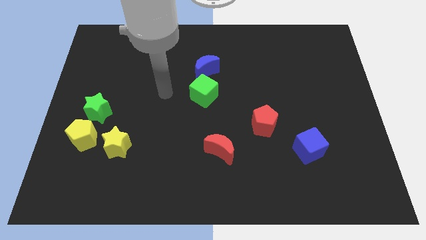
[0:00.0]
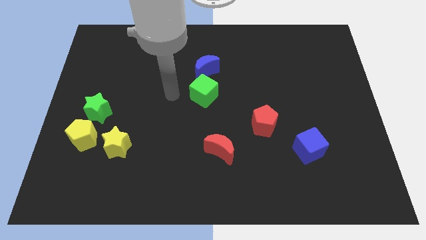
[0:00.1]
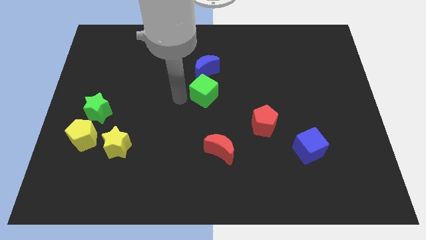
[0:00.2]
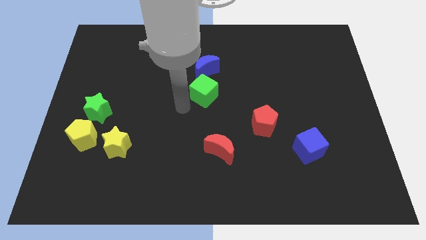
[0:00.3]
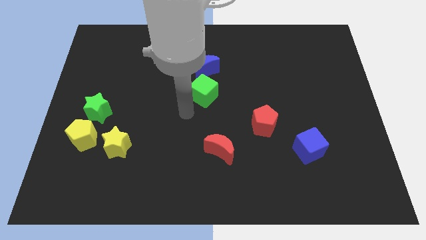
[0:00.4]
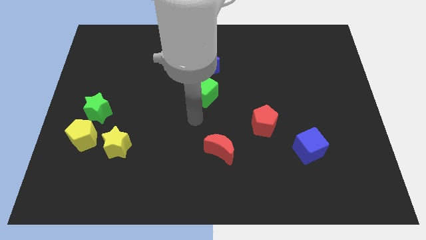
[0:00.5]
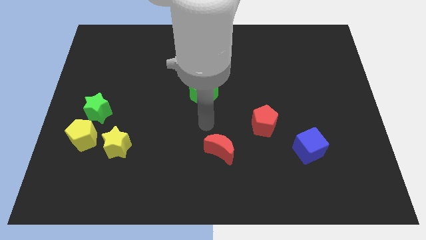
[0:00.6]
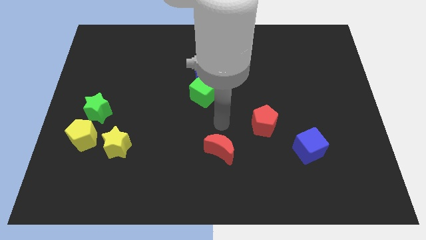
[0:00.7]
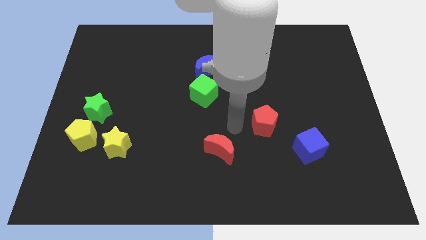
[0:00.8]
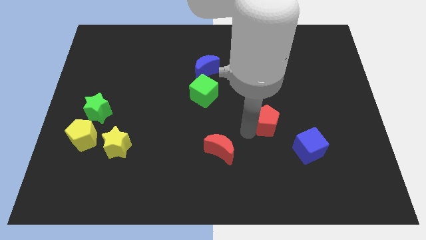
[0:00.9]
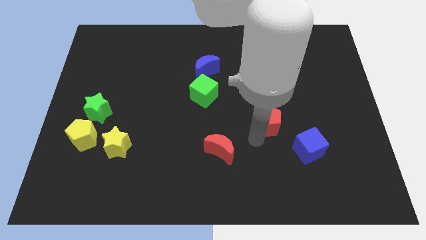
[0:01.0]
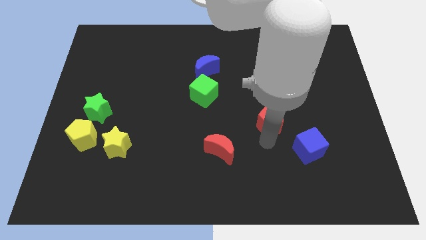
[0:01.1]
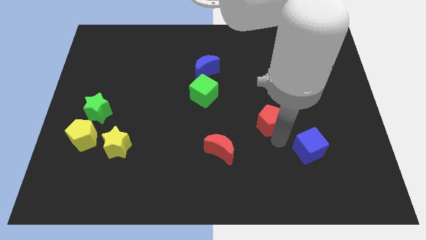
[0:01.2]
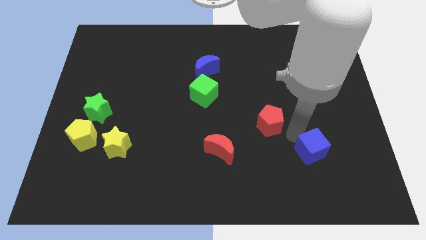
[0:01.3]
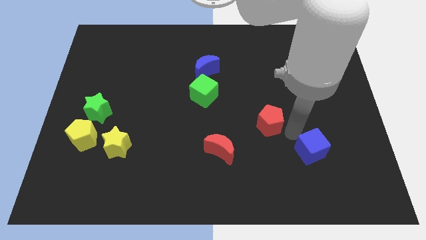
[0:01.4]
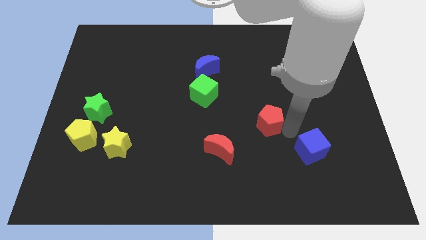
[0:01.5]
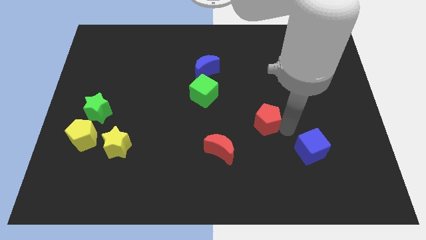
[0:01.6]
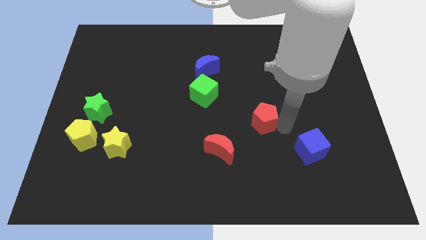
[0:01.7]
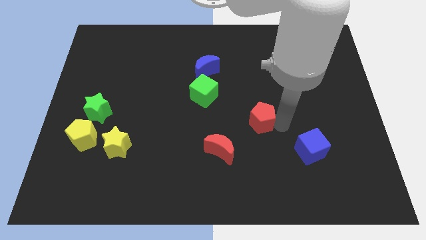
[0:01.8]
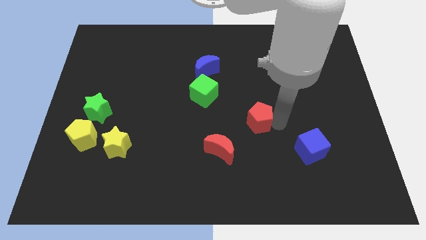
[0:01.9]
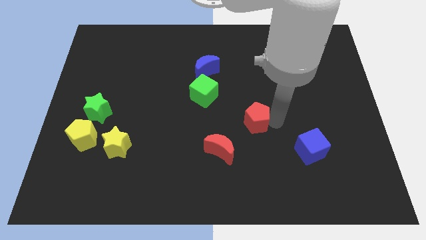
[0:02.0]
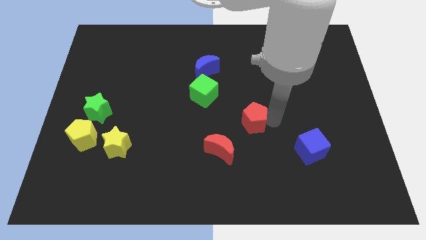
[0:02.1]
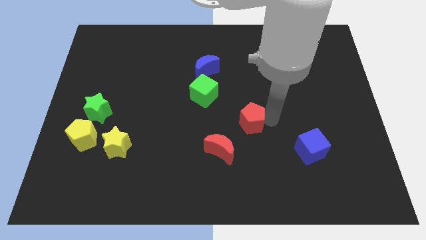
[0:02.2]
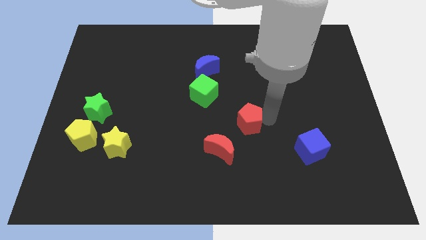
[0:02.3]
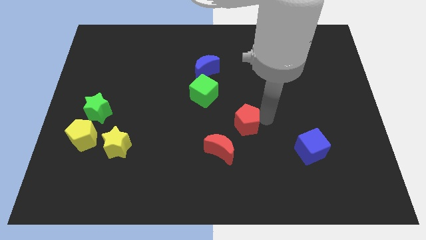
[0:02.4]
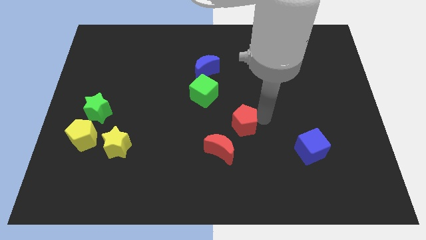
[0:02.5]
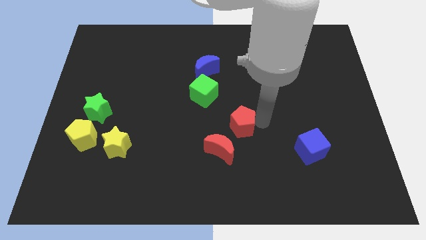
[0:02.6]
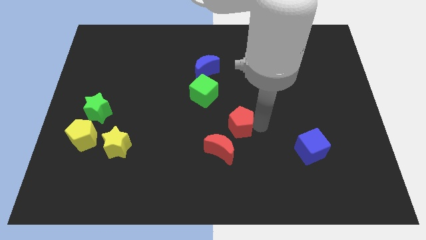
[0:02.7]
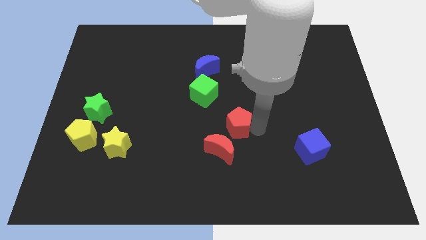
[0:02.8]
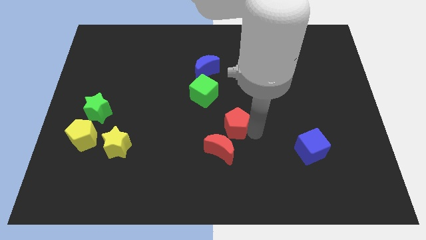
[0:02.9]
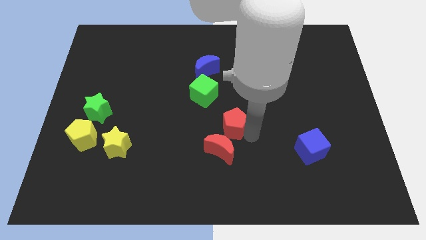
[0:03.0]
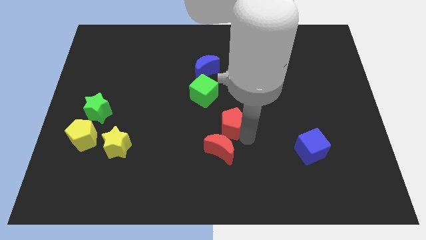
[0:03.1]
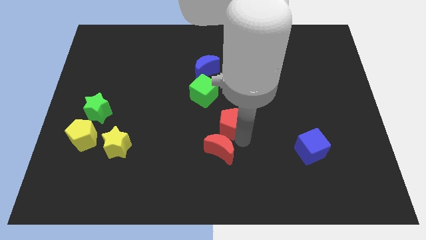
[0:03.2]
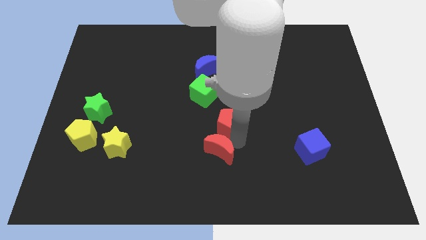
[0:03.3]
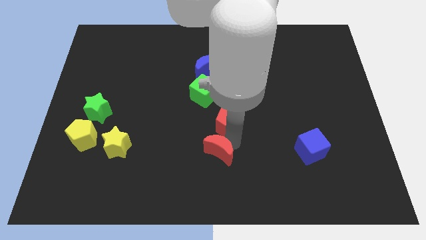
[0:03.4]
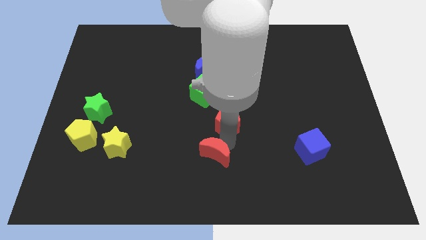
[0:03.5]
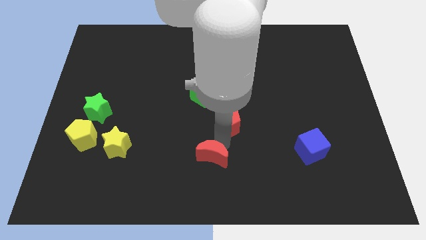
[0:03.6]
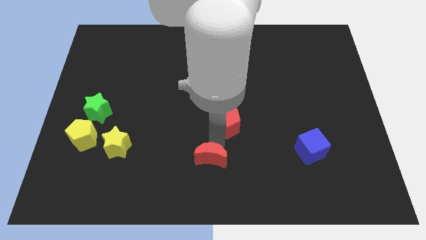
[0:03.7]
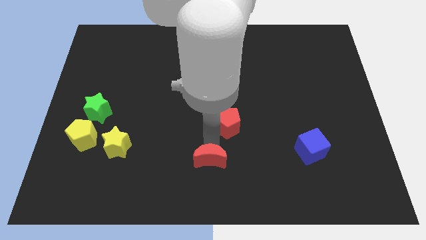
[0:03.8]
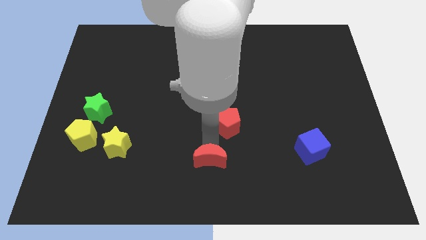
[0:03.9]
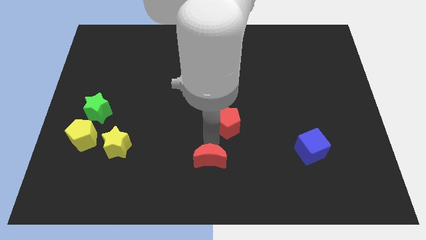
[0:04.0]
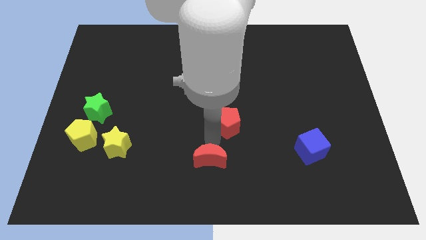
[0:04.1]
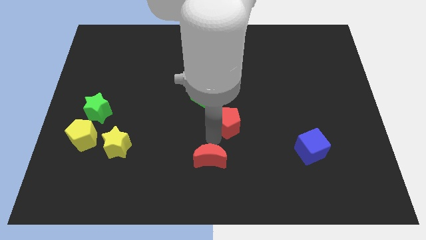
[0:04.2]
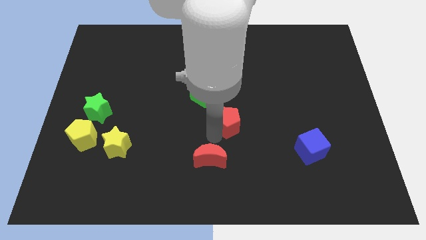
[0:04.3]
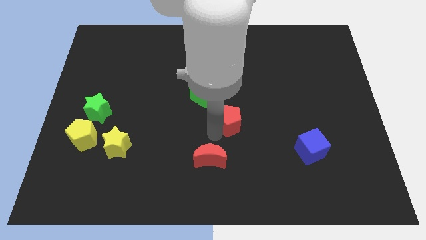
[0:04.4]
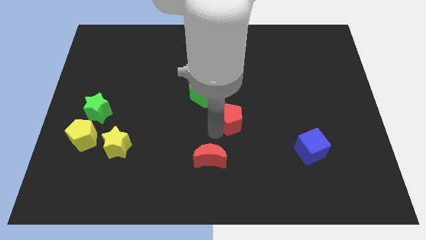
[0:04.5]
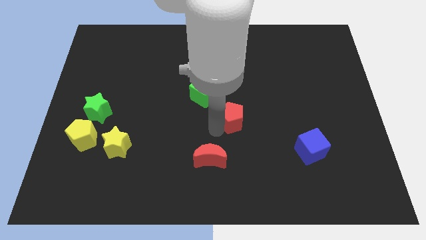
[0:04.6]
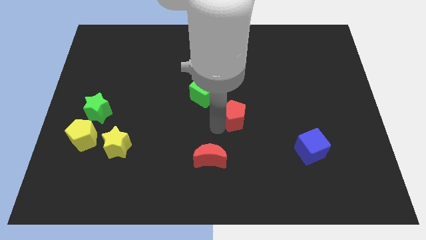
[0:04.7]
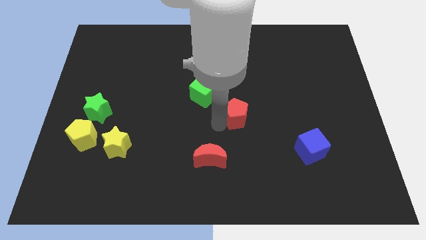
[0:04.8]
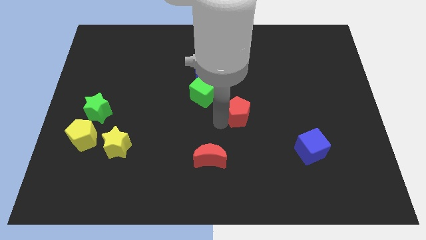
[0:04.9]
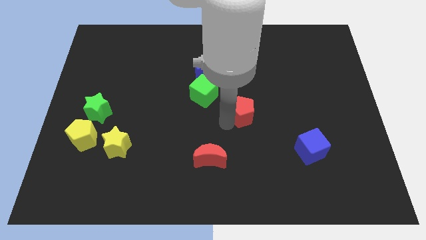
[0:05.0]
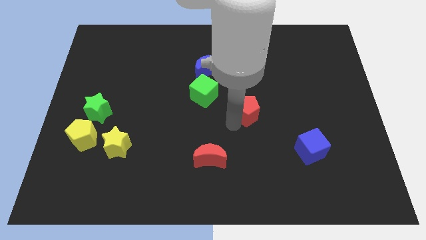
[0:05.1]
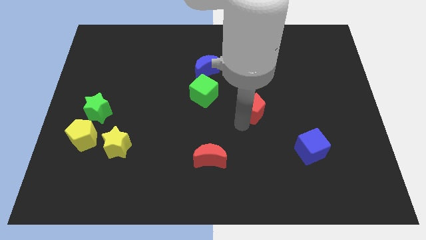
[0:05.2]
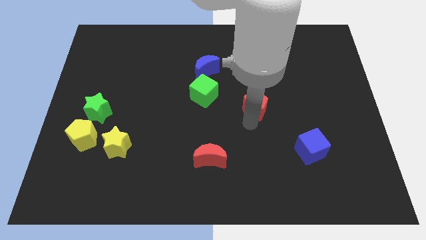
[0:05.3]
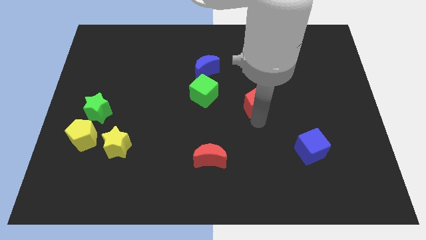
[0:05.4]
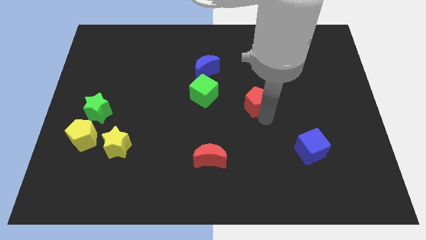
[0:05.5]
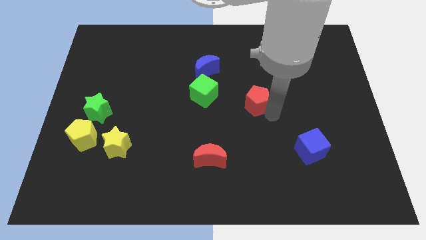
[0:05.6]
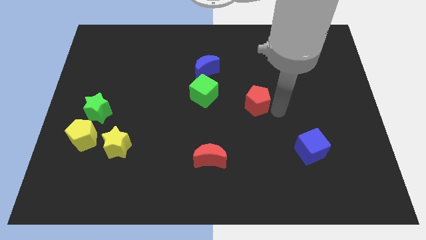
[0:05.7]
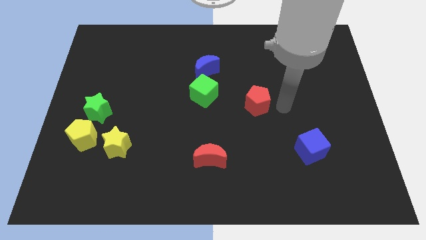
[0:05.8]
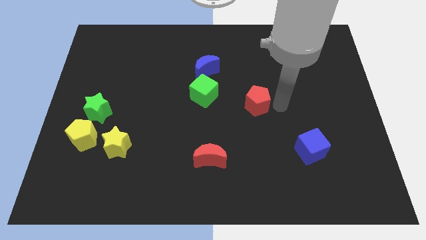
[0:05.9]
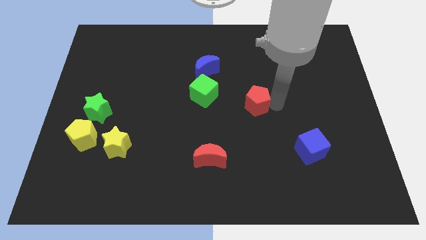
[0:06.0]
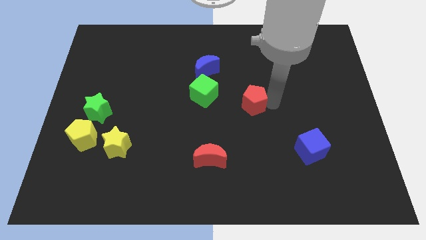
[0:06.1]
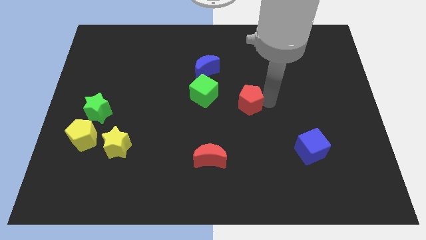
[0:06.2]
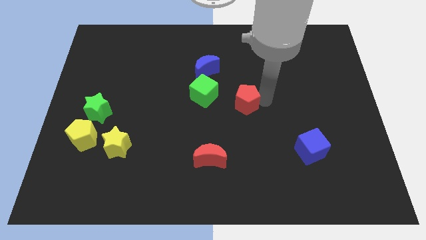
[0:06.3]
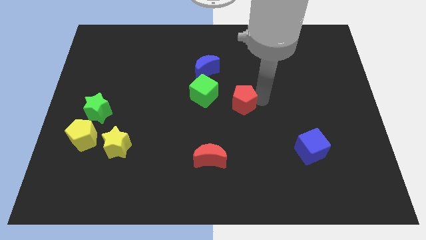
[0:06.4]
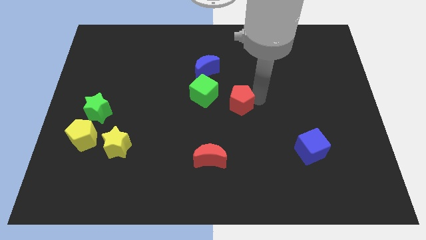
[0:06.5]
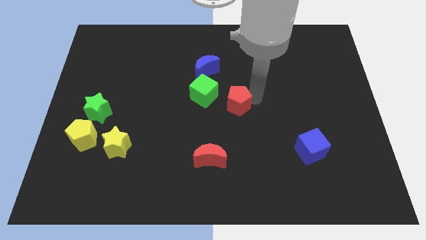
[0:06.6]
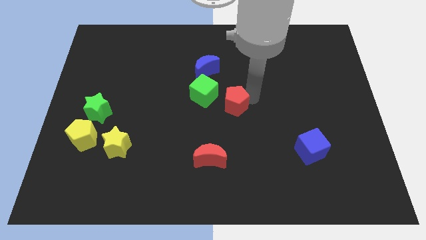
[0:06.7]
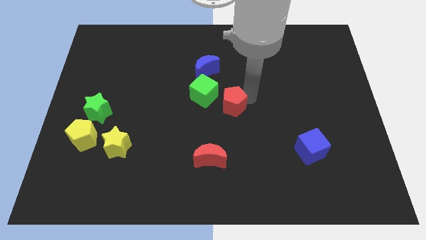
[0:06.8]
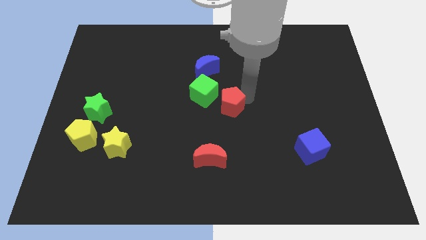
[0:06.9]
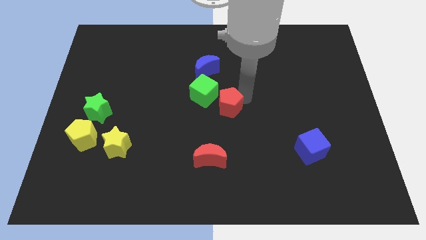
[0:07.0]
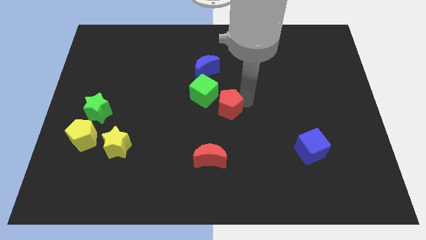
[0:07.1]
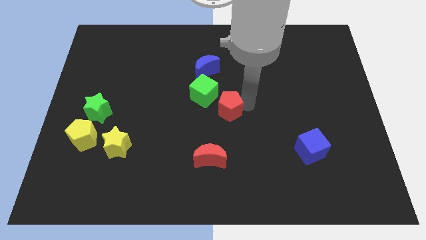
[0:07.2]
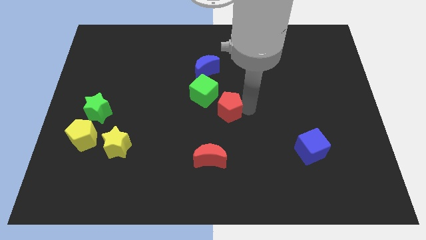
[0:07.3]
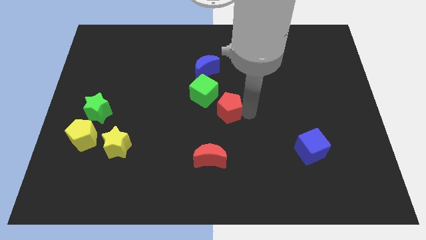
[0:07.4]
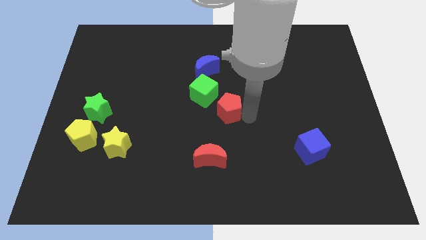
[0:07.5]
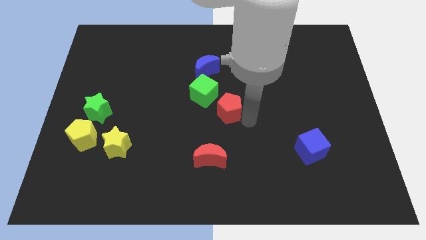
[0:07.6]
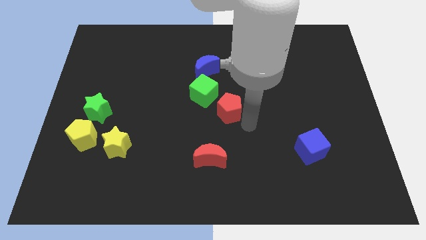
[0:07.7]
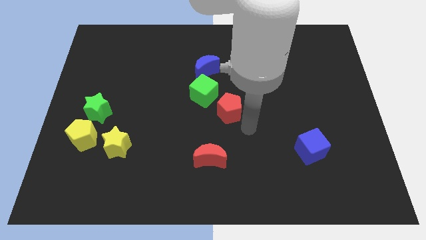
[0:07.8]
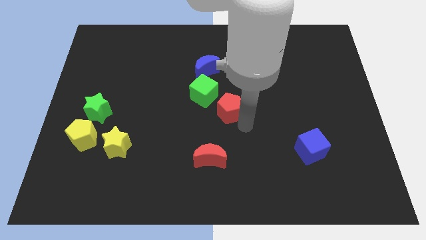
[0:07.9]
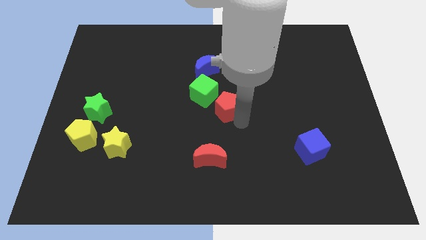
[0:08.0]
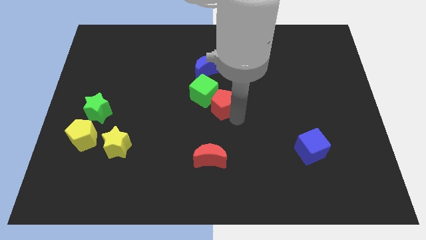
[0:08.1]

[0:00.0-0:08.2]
push the red pentagon to the green cube
